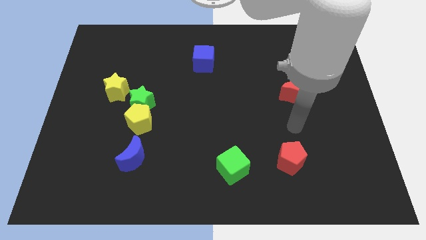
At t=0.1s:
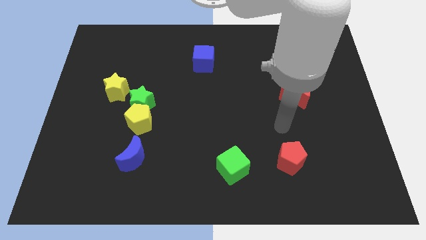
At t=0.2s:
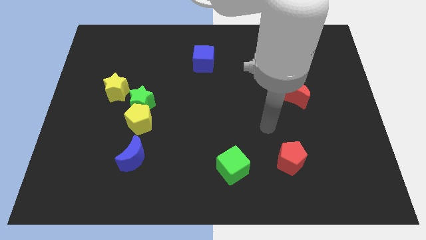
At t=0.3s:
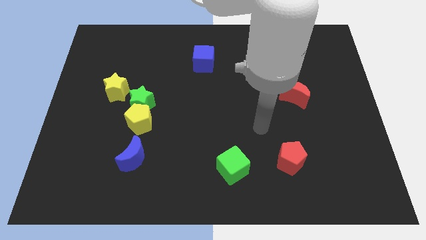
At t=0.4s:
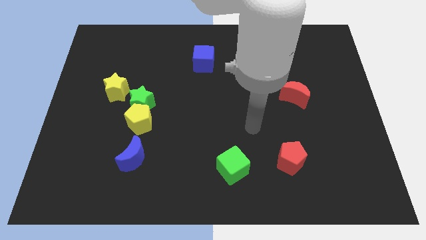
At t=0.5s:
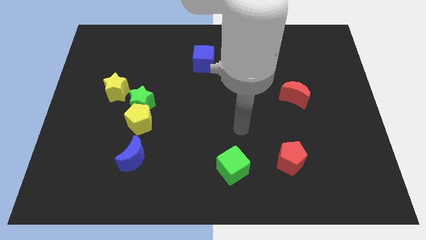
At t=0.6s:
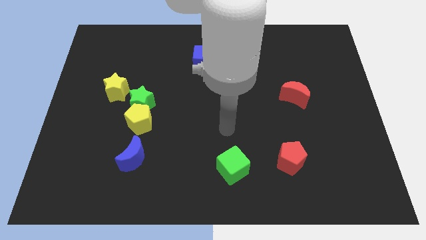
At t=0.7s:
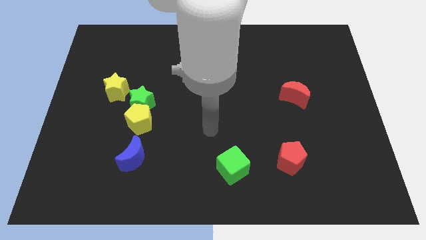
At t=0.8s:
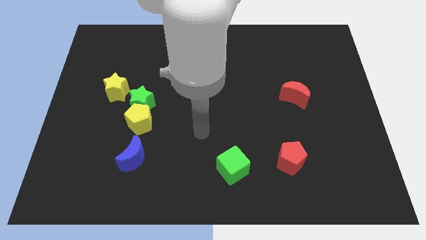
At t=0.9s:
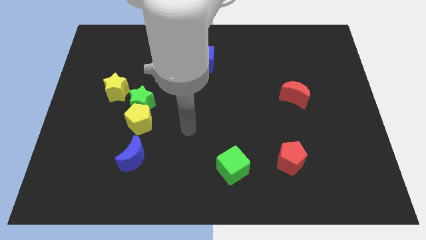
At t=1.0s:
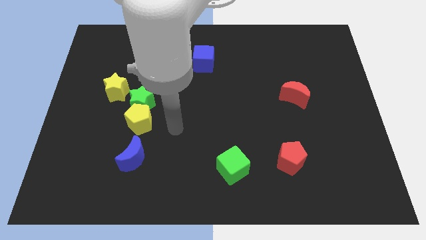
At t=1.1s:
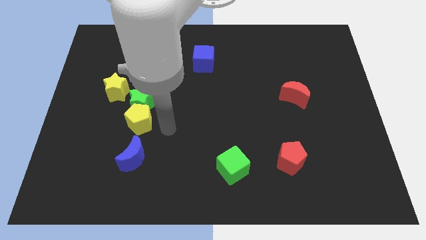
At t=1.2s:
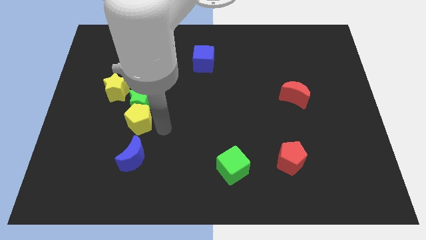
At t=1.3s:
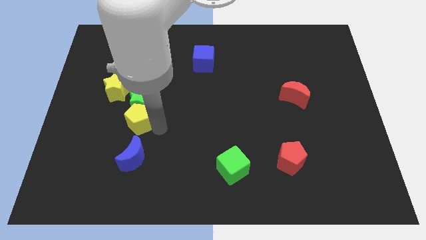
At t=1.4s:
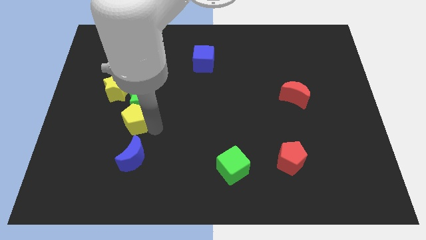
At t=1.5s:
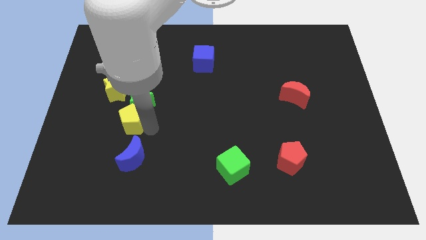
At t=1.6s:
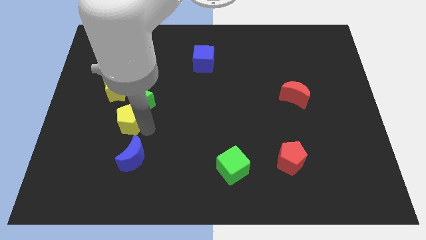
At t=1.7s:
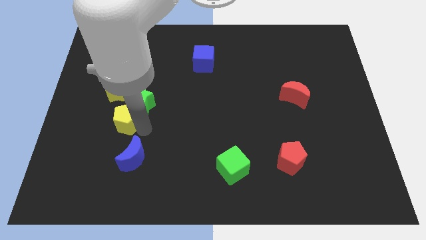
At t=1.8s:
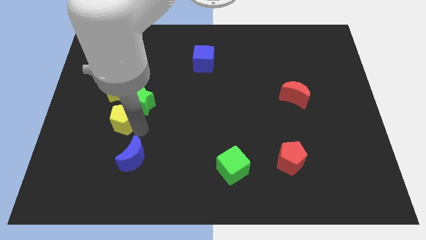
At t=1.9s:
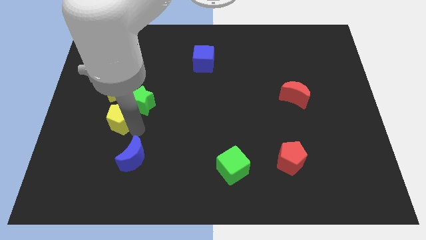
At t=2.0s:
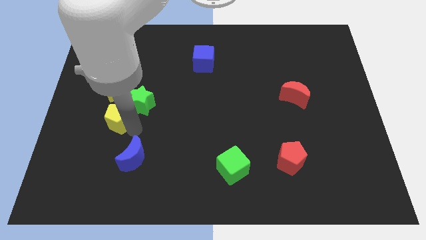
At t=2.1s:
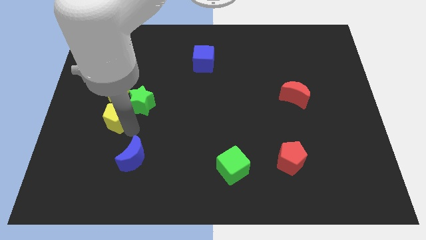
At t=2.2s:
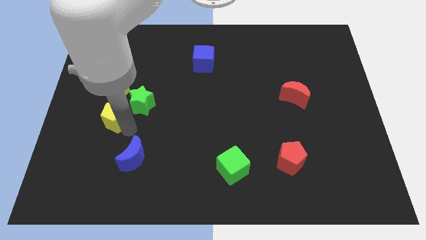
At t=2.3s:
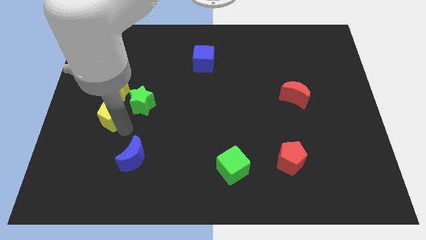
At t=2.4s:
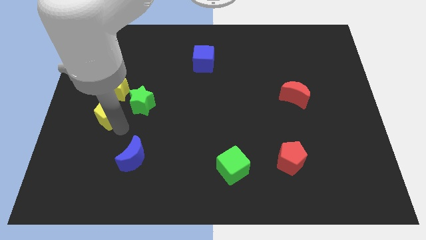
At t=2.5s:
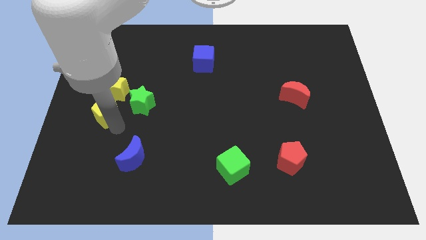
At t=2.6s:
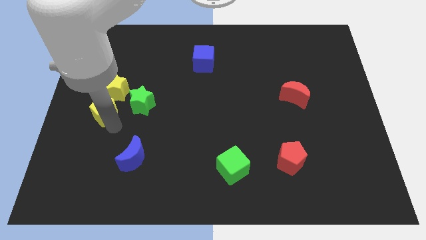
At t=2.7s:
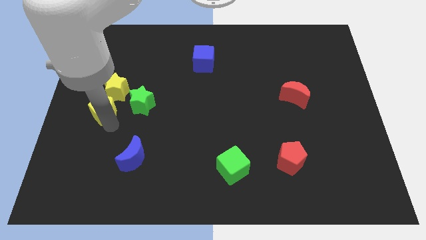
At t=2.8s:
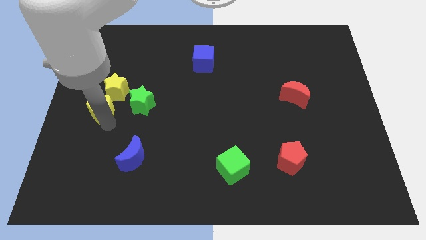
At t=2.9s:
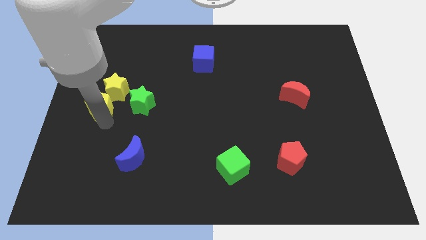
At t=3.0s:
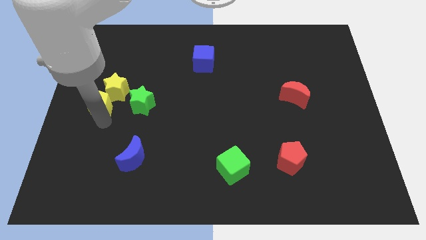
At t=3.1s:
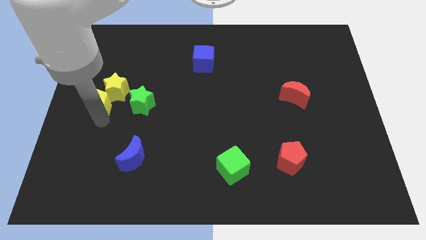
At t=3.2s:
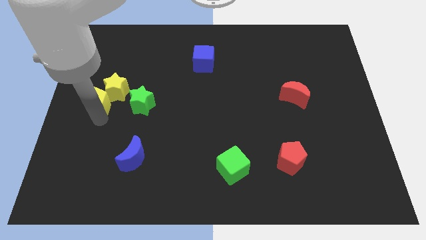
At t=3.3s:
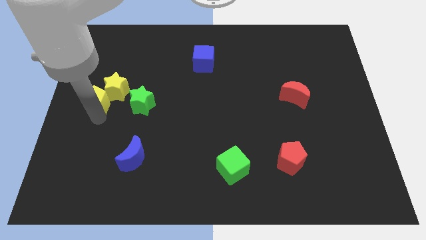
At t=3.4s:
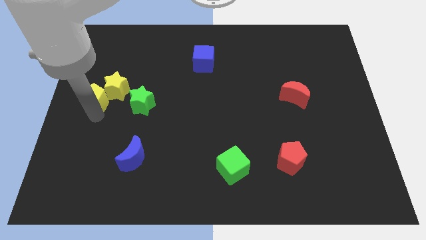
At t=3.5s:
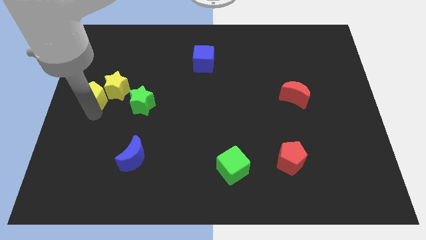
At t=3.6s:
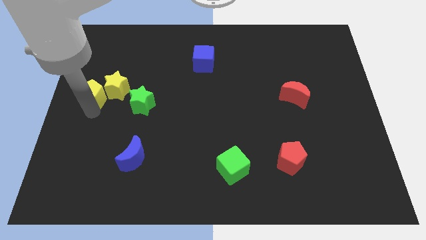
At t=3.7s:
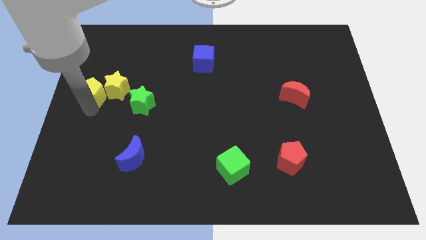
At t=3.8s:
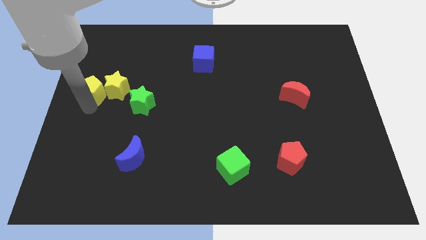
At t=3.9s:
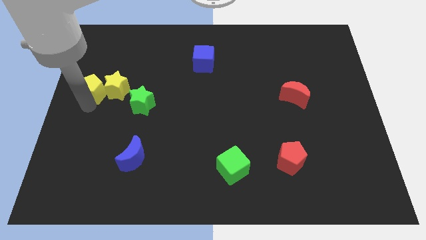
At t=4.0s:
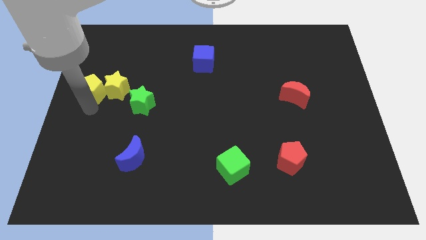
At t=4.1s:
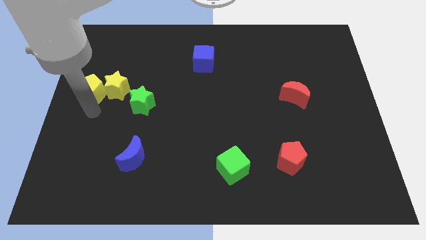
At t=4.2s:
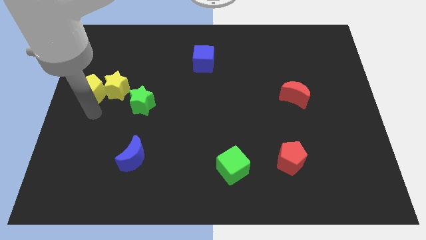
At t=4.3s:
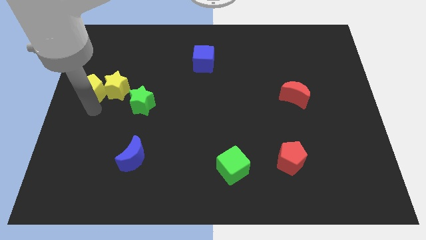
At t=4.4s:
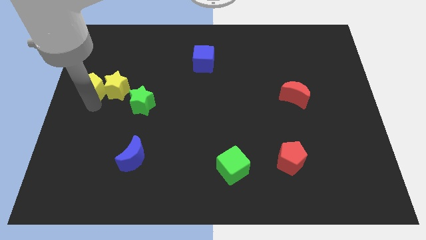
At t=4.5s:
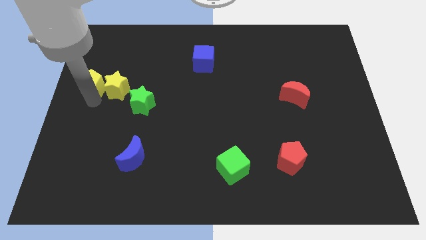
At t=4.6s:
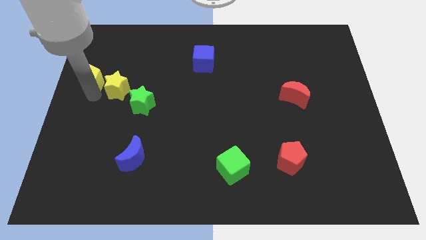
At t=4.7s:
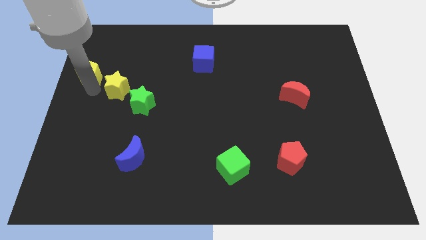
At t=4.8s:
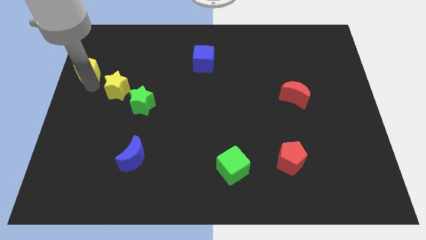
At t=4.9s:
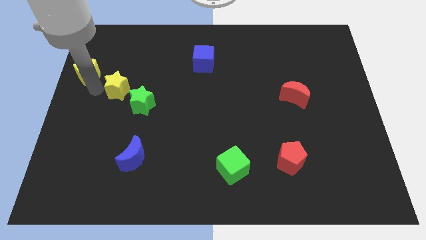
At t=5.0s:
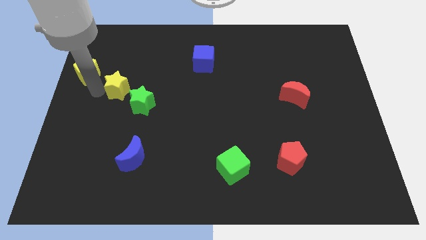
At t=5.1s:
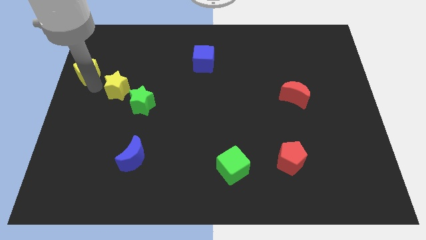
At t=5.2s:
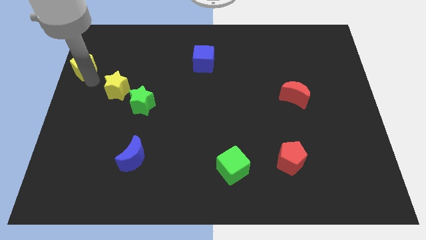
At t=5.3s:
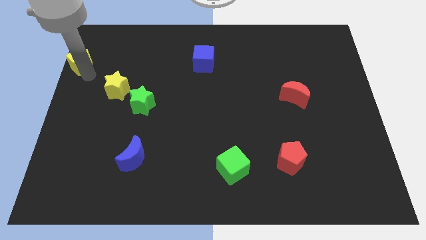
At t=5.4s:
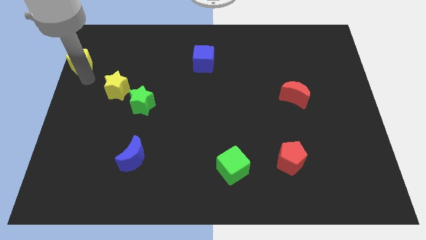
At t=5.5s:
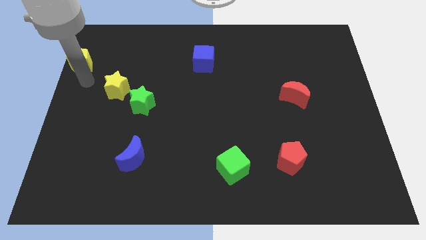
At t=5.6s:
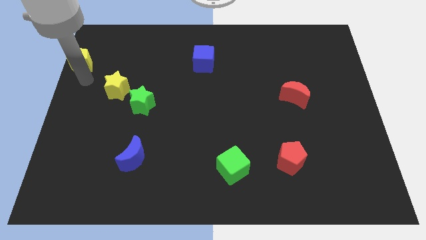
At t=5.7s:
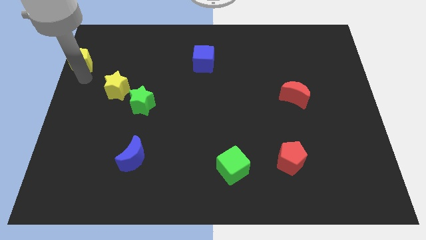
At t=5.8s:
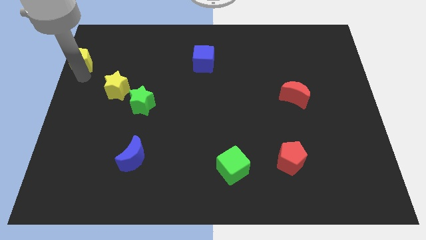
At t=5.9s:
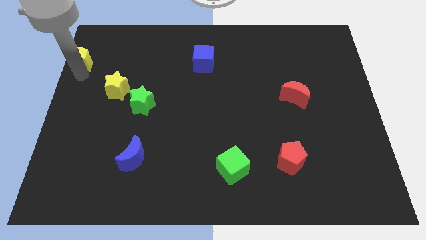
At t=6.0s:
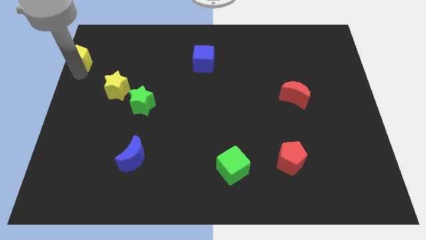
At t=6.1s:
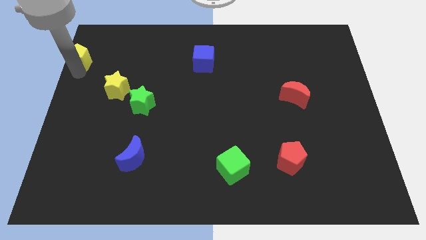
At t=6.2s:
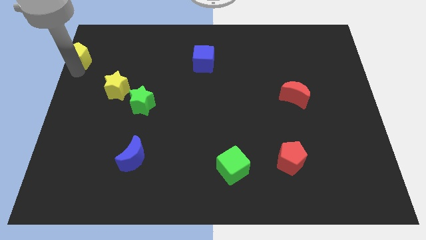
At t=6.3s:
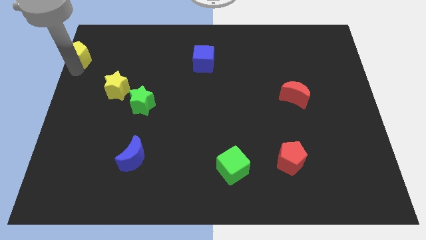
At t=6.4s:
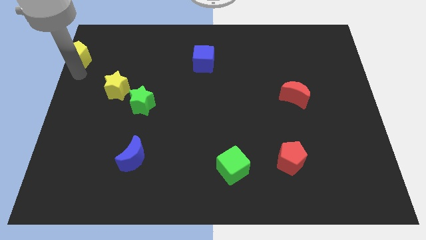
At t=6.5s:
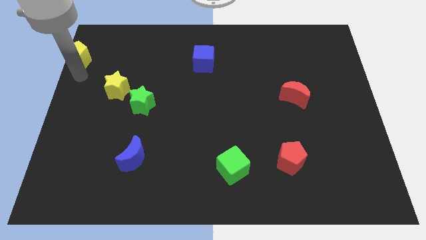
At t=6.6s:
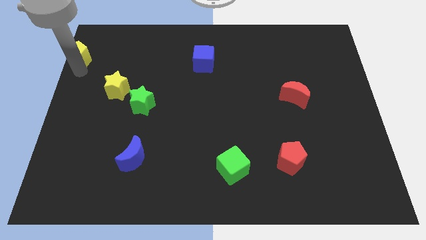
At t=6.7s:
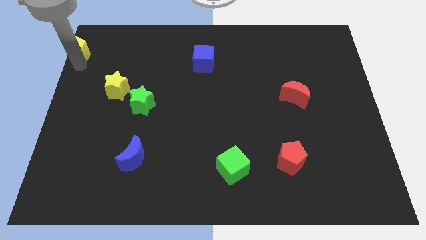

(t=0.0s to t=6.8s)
move the yellow pentagon to the top left of the board

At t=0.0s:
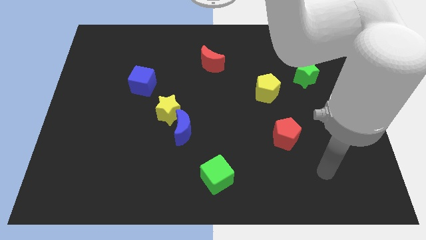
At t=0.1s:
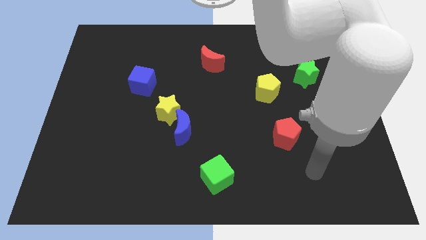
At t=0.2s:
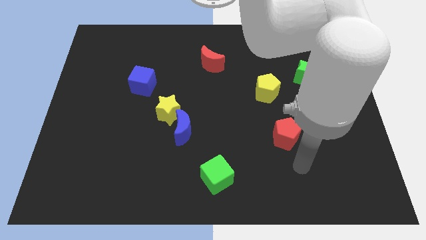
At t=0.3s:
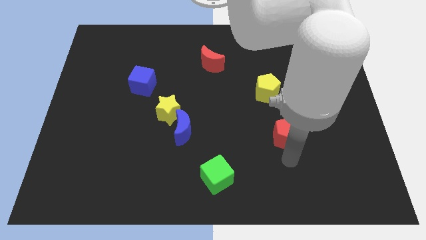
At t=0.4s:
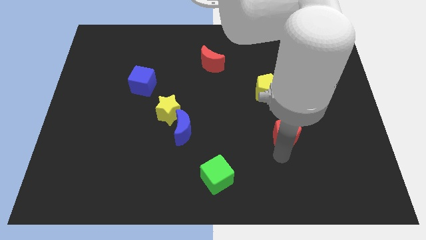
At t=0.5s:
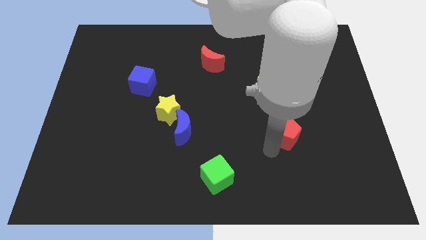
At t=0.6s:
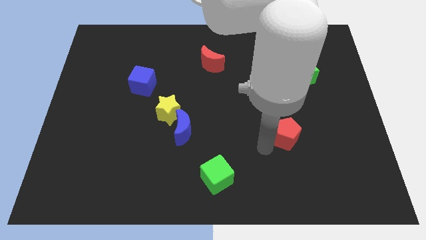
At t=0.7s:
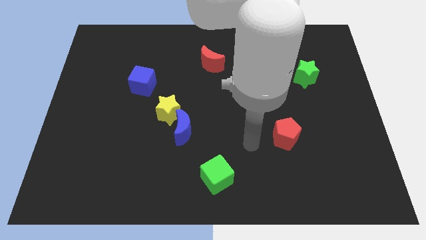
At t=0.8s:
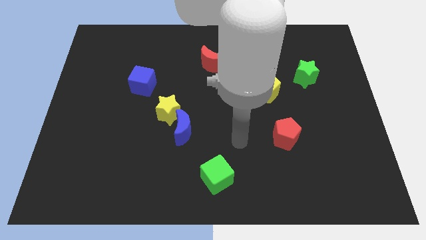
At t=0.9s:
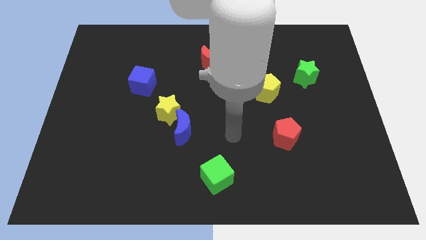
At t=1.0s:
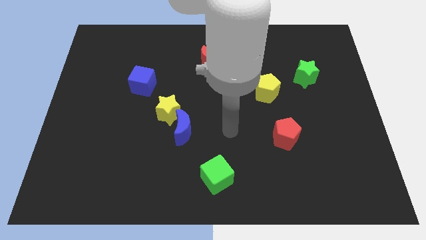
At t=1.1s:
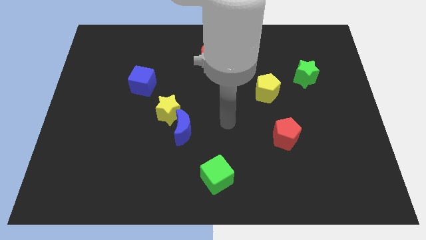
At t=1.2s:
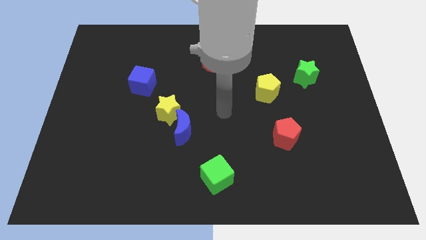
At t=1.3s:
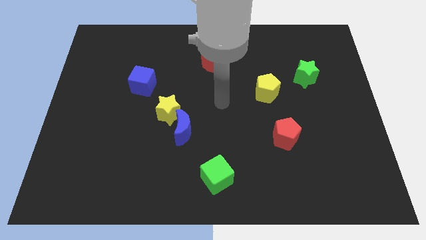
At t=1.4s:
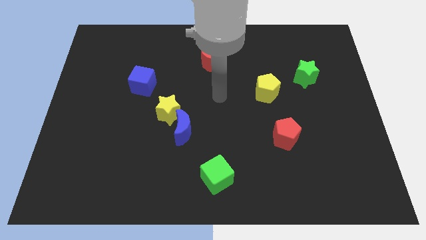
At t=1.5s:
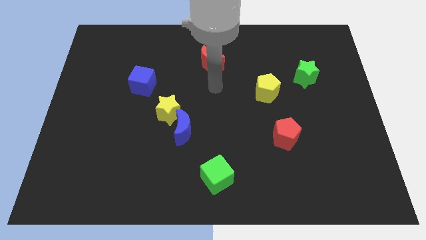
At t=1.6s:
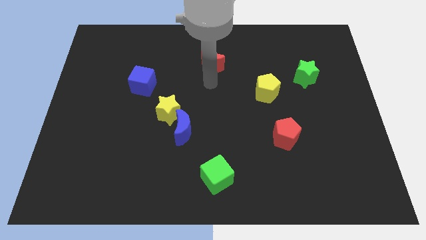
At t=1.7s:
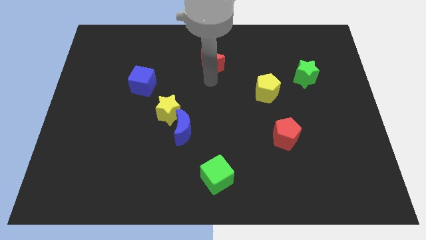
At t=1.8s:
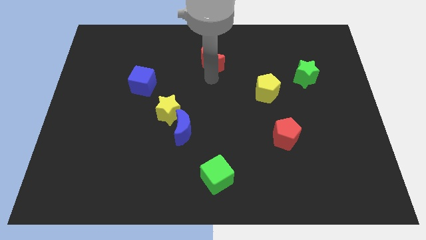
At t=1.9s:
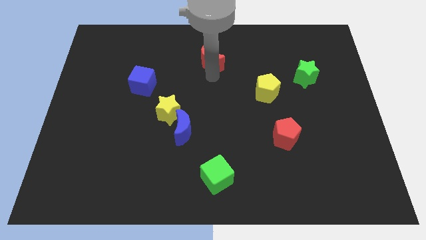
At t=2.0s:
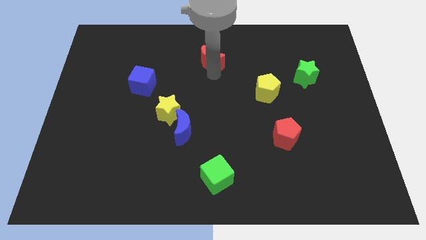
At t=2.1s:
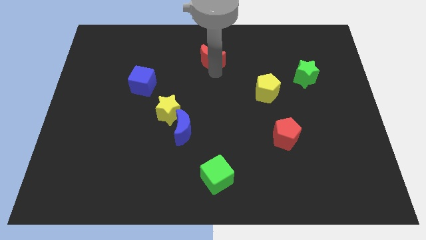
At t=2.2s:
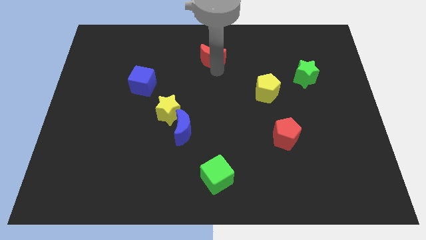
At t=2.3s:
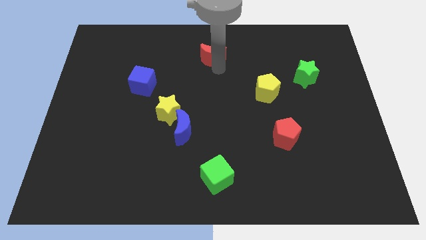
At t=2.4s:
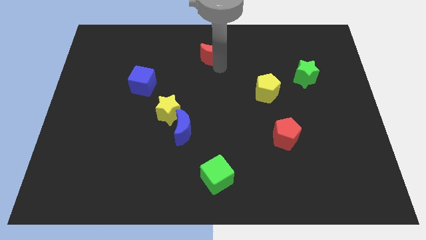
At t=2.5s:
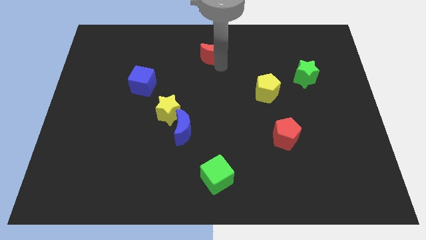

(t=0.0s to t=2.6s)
move the red moon to the towards your base
